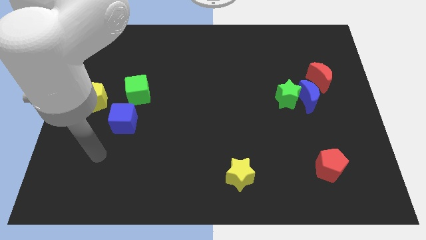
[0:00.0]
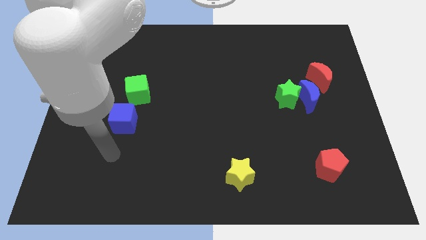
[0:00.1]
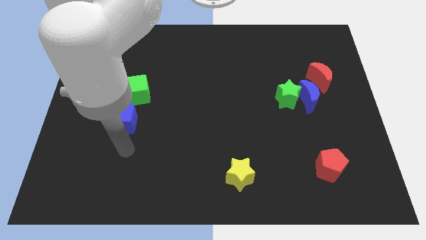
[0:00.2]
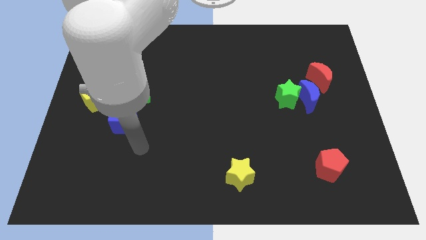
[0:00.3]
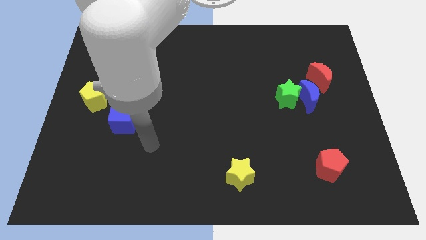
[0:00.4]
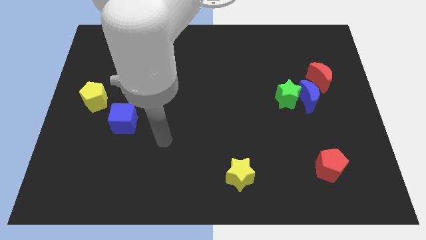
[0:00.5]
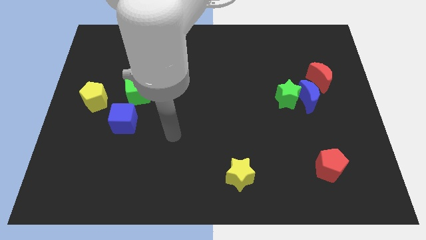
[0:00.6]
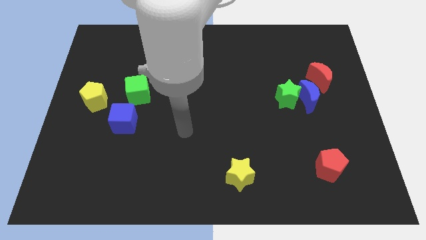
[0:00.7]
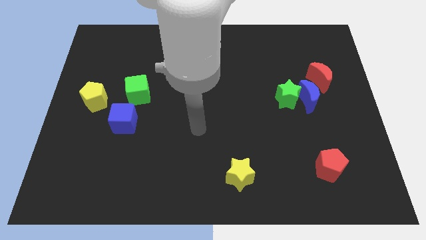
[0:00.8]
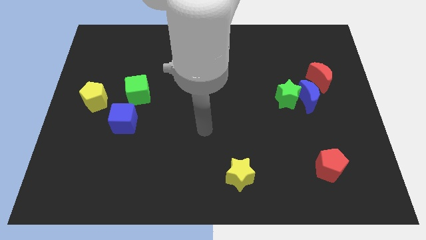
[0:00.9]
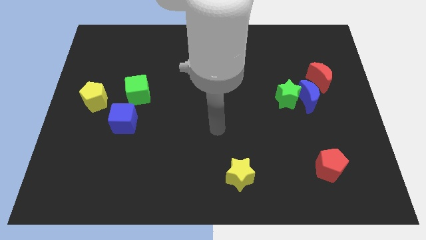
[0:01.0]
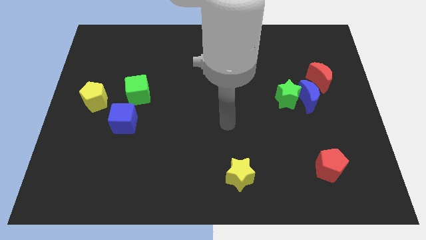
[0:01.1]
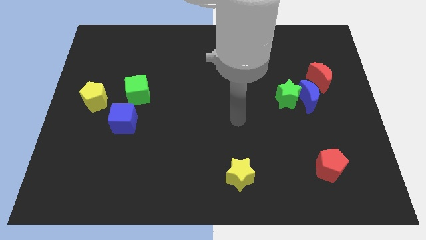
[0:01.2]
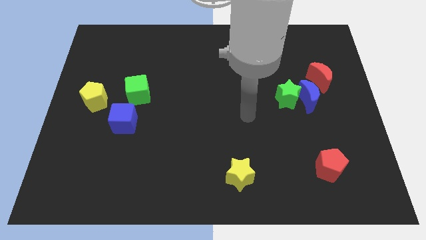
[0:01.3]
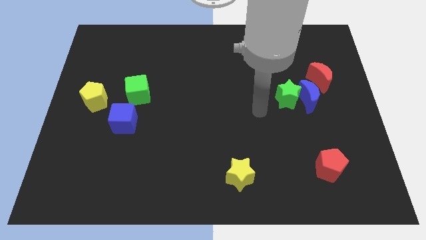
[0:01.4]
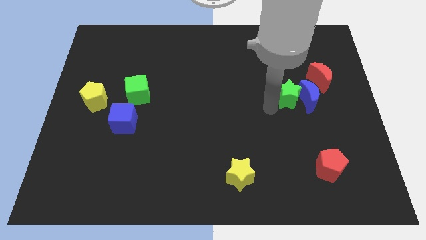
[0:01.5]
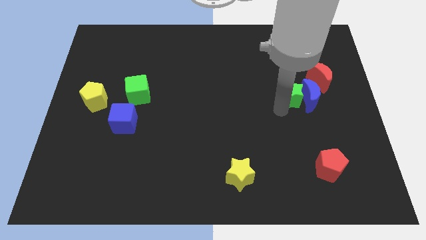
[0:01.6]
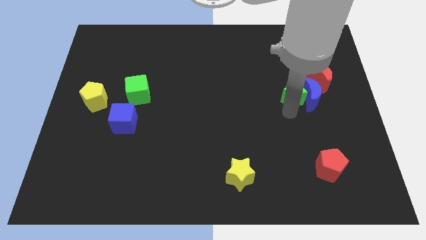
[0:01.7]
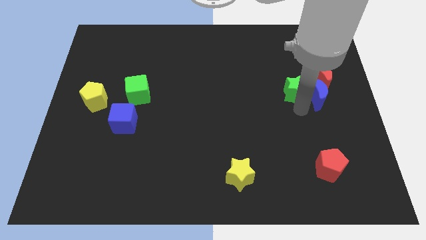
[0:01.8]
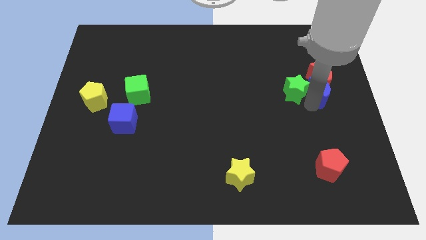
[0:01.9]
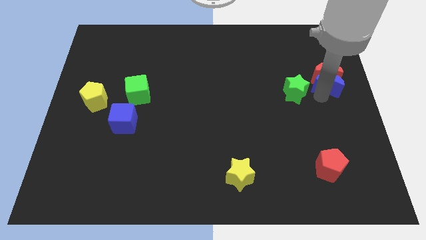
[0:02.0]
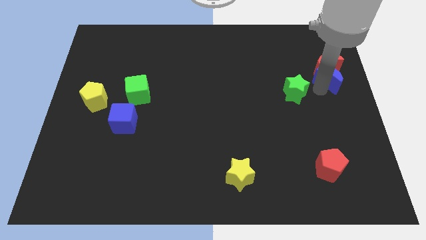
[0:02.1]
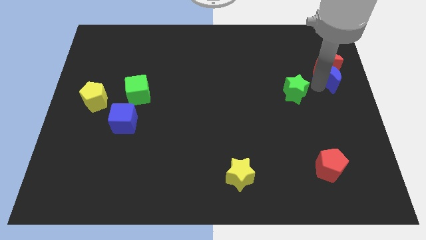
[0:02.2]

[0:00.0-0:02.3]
move the green star away from the blue moon

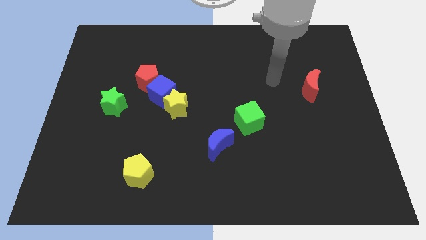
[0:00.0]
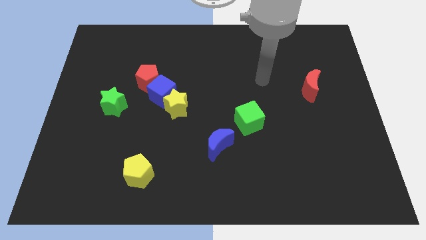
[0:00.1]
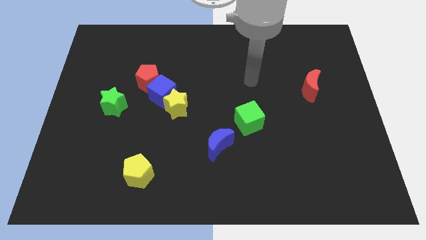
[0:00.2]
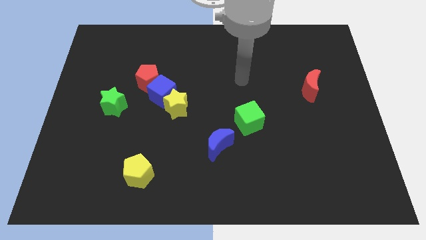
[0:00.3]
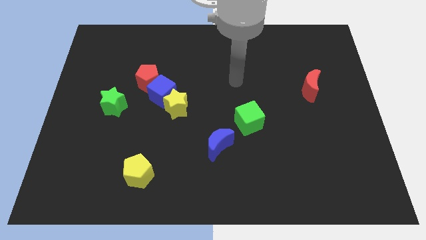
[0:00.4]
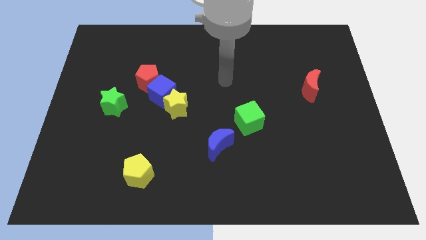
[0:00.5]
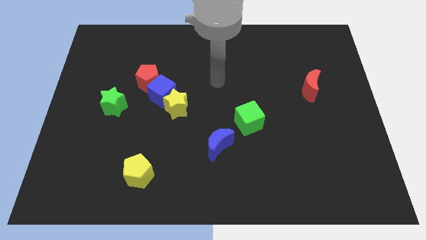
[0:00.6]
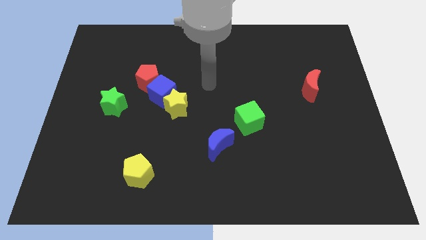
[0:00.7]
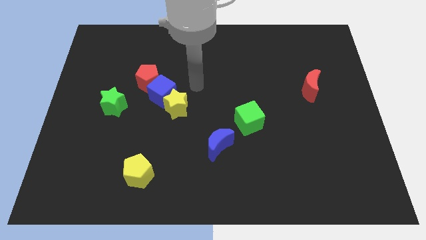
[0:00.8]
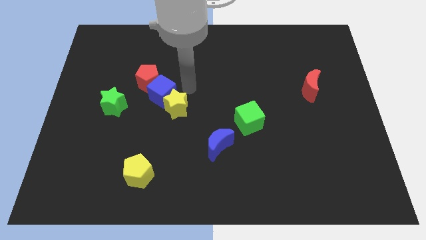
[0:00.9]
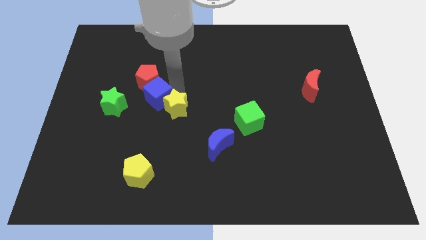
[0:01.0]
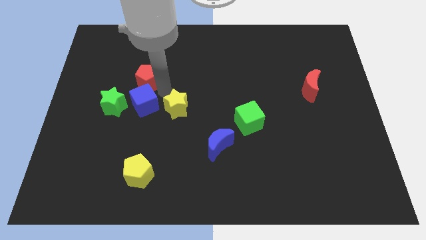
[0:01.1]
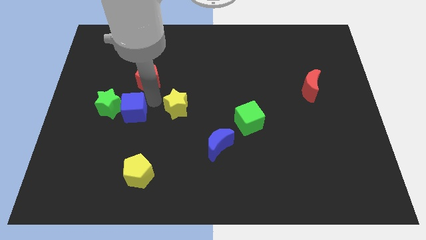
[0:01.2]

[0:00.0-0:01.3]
move the yellow star away from the blue cube

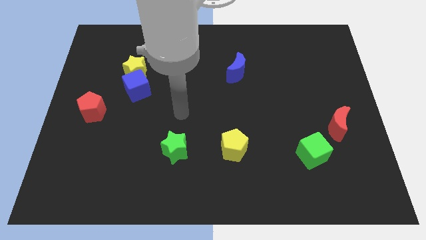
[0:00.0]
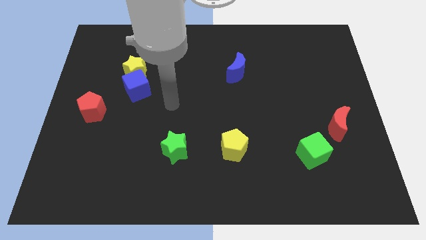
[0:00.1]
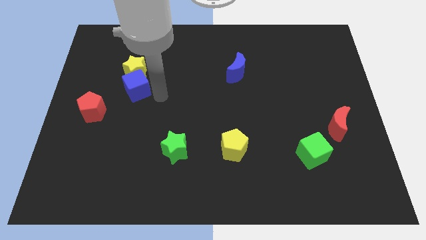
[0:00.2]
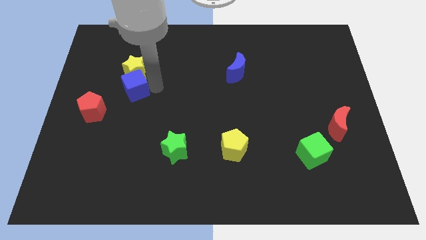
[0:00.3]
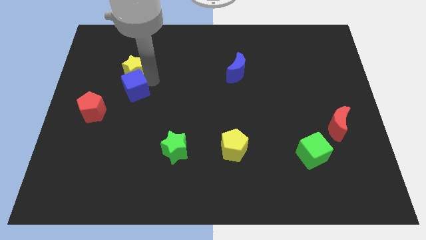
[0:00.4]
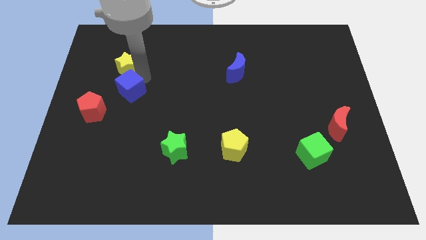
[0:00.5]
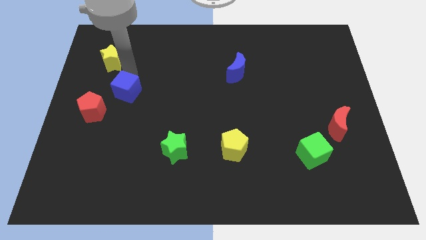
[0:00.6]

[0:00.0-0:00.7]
pull the blue cube apart from the yellow star

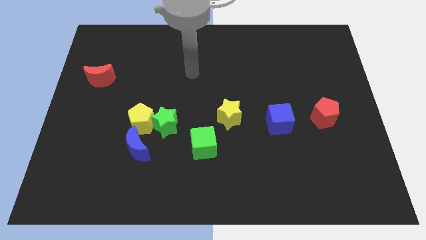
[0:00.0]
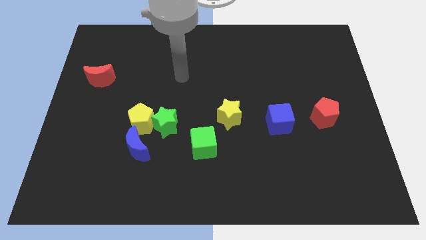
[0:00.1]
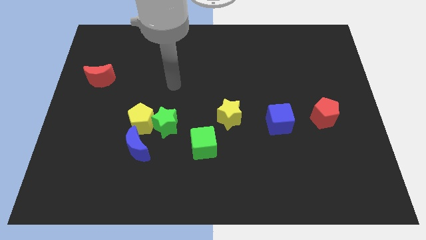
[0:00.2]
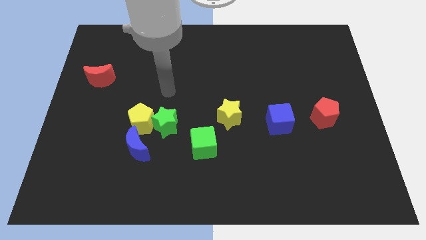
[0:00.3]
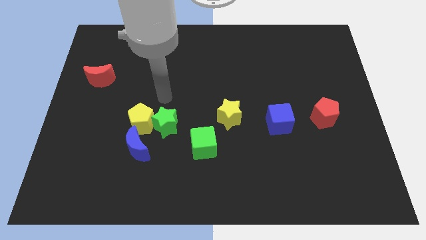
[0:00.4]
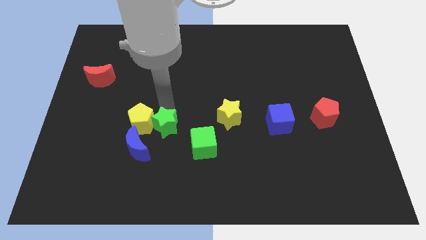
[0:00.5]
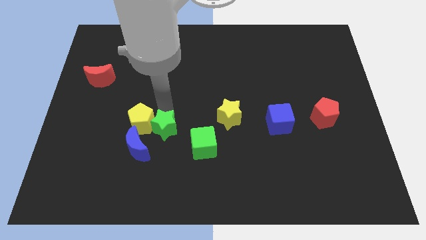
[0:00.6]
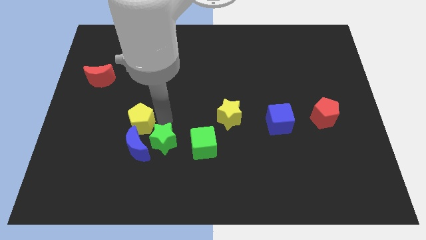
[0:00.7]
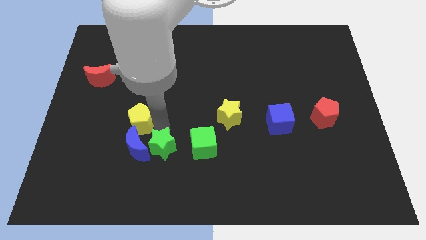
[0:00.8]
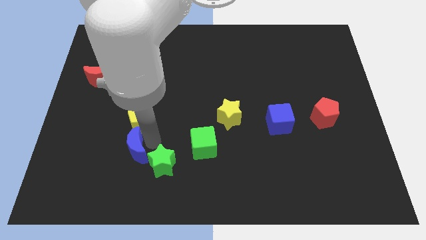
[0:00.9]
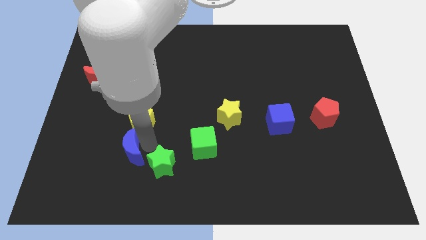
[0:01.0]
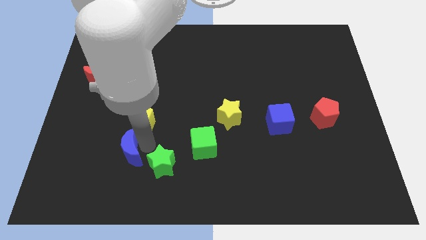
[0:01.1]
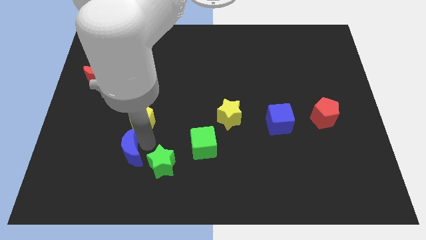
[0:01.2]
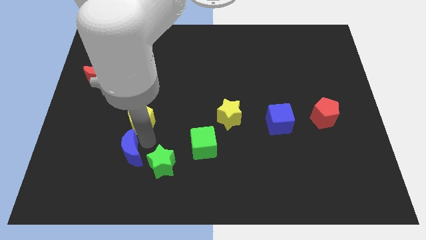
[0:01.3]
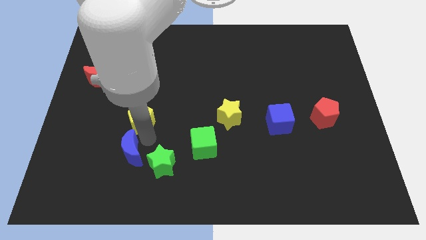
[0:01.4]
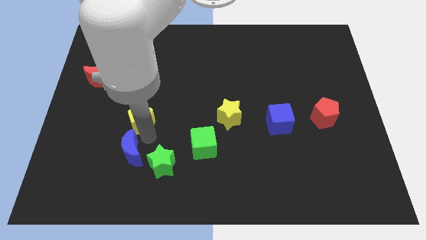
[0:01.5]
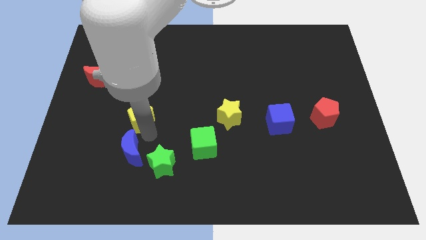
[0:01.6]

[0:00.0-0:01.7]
move the yellow pentagon away from the green star and blue moon

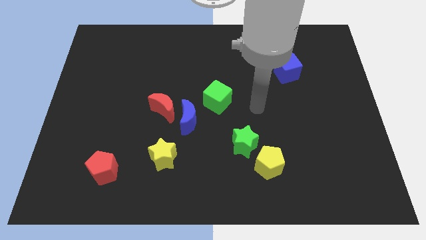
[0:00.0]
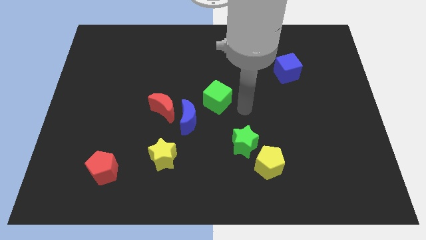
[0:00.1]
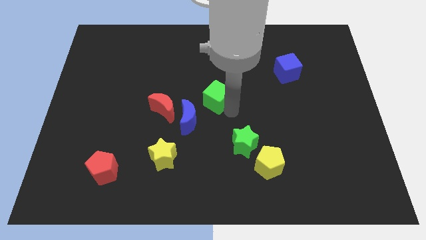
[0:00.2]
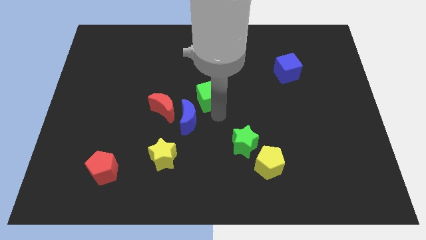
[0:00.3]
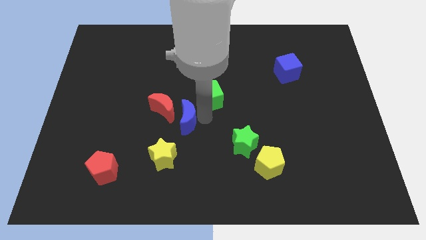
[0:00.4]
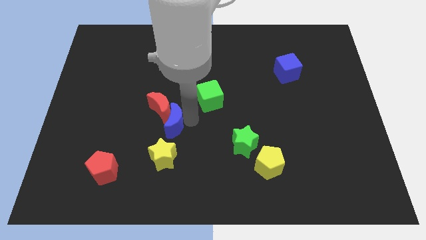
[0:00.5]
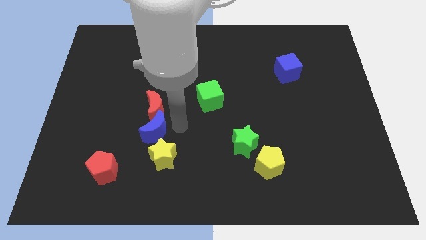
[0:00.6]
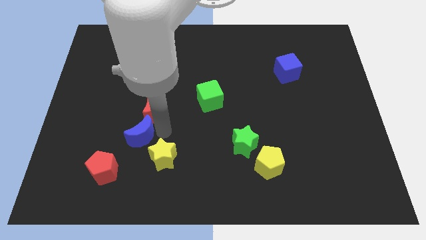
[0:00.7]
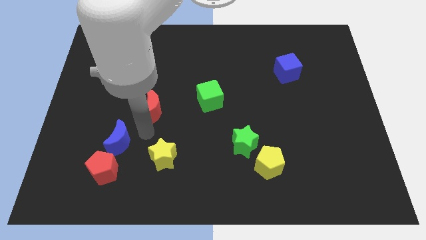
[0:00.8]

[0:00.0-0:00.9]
pull the red moon apart from the blue moon

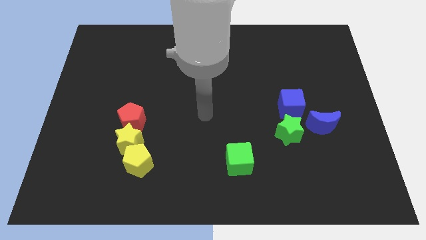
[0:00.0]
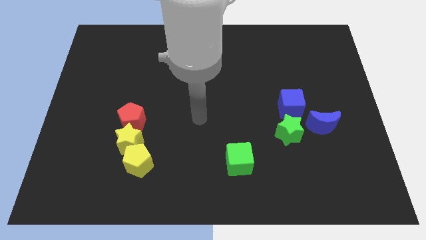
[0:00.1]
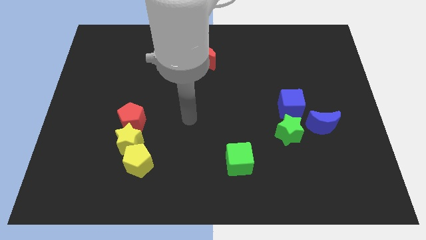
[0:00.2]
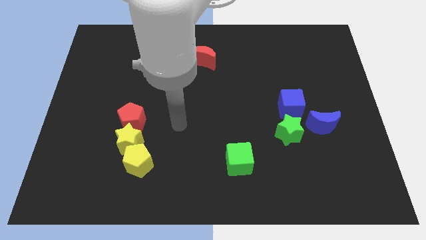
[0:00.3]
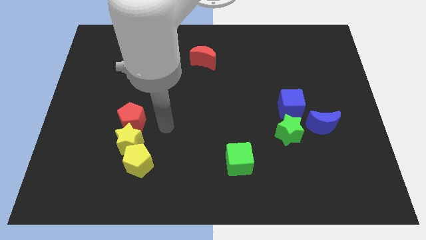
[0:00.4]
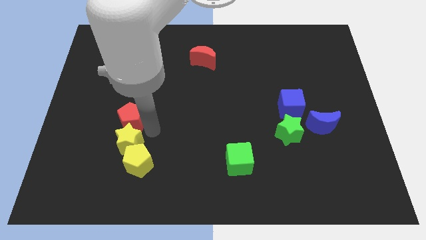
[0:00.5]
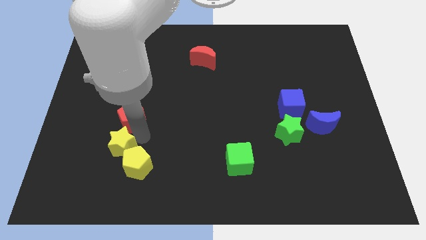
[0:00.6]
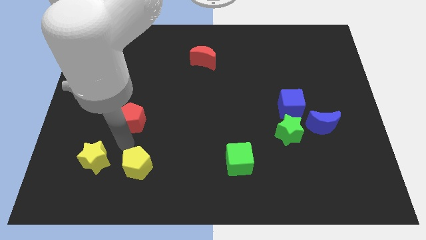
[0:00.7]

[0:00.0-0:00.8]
separate the red pentagon from the yellow star

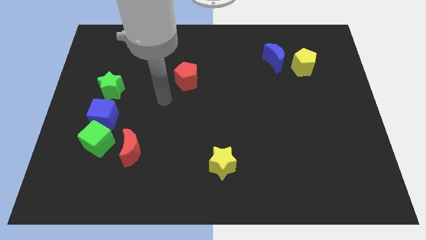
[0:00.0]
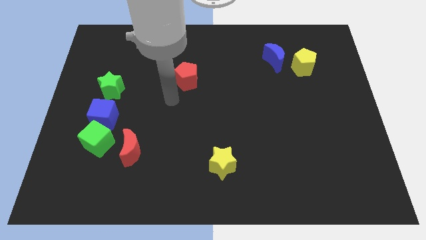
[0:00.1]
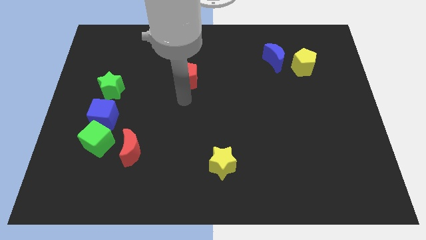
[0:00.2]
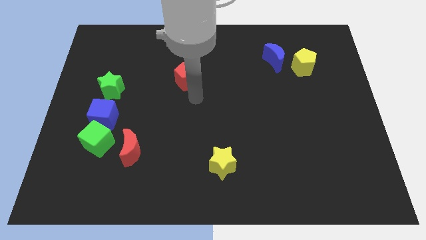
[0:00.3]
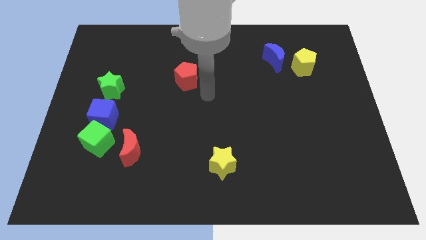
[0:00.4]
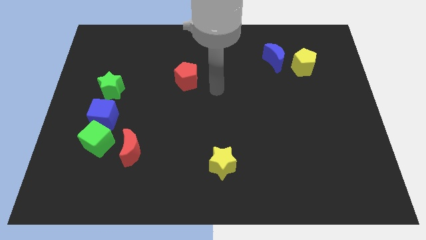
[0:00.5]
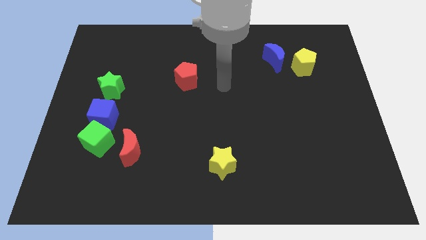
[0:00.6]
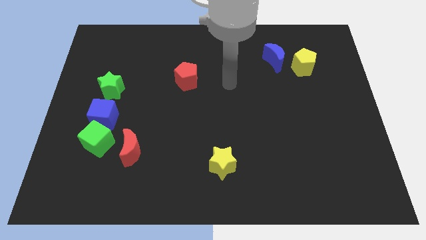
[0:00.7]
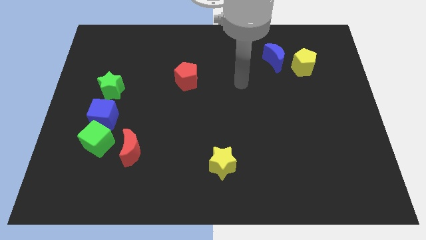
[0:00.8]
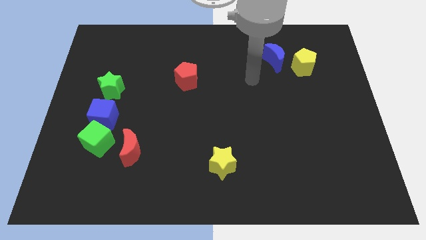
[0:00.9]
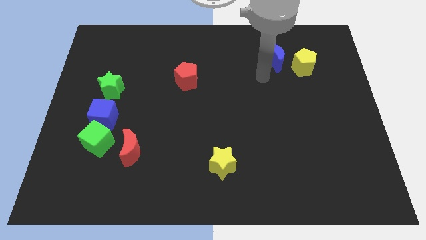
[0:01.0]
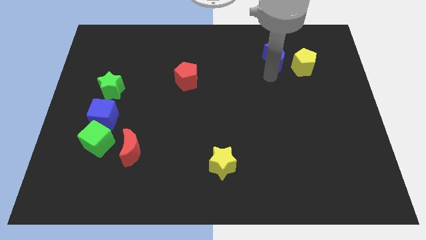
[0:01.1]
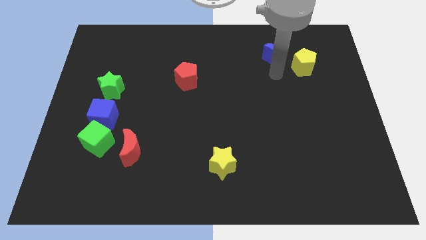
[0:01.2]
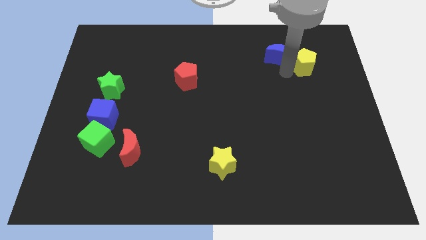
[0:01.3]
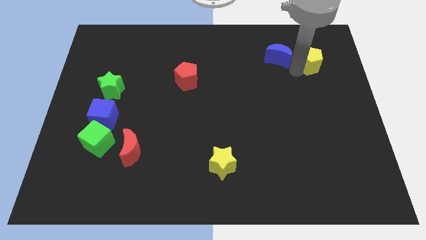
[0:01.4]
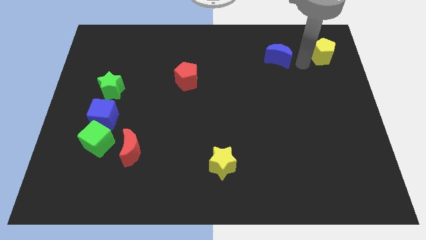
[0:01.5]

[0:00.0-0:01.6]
move the blue moon away from the yellow pentagon

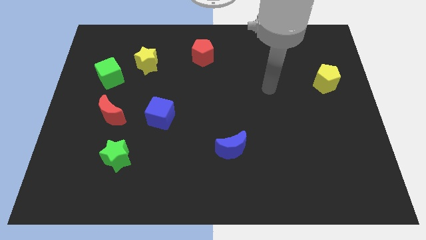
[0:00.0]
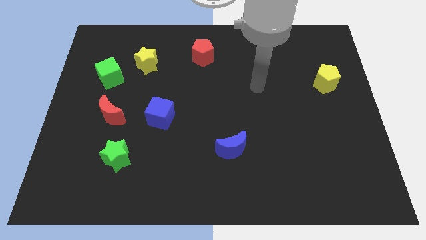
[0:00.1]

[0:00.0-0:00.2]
move the green cube away from the yellow star
